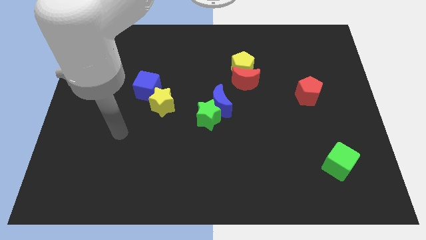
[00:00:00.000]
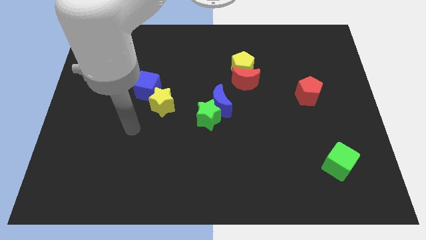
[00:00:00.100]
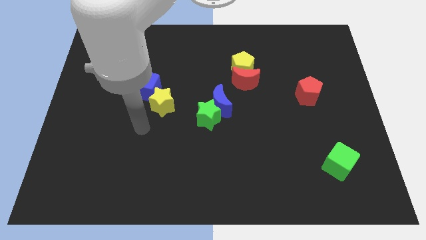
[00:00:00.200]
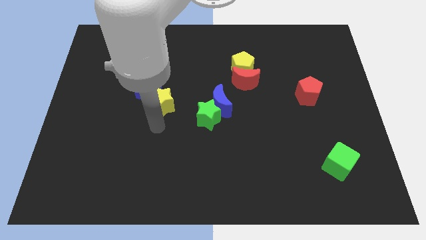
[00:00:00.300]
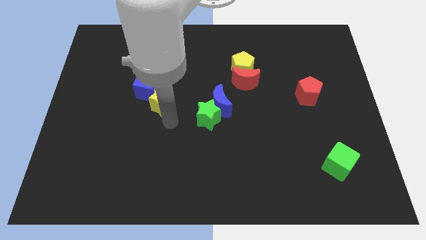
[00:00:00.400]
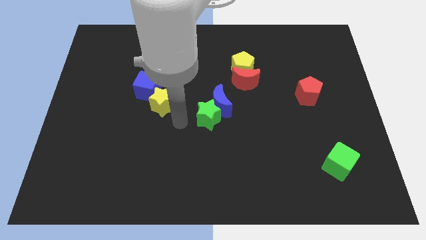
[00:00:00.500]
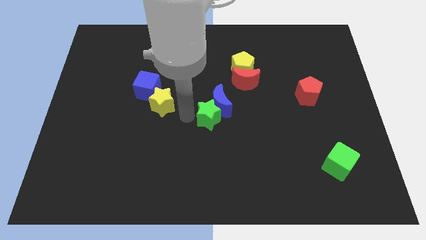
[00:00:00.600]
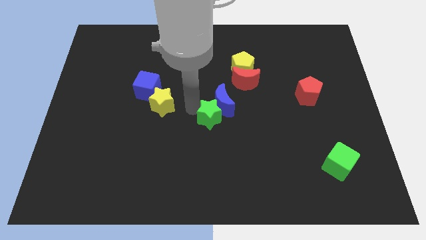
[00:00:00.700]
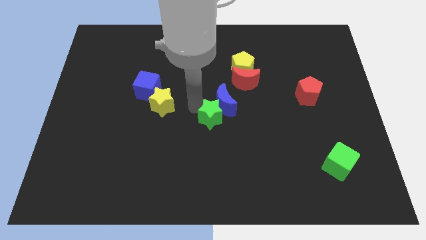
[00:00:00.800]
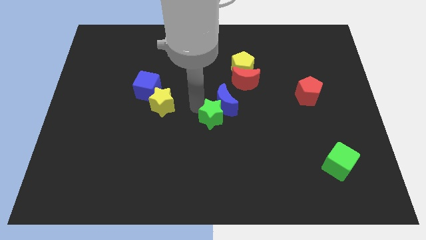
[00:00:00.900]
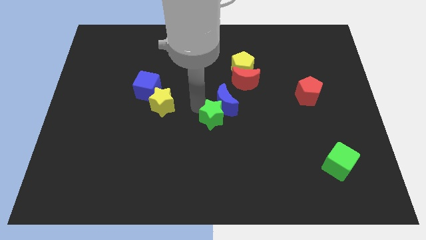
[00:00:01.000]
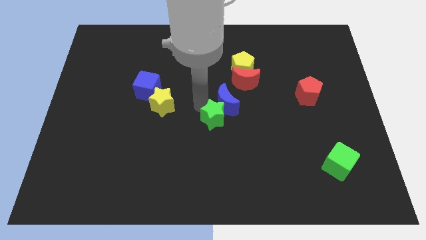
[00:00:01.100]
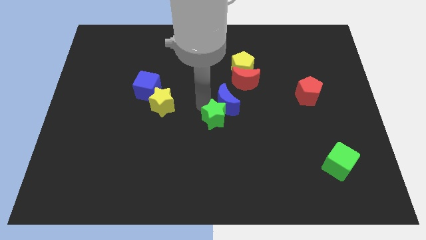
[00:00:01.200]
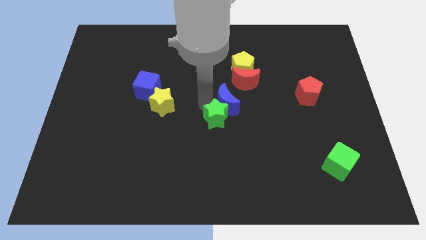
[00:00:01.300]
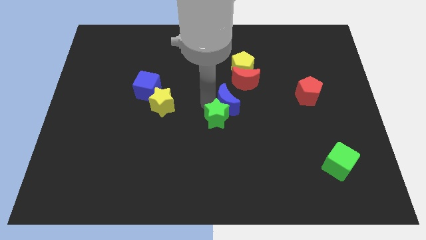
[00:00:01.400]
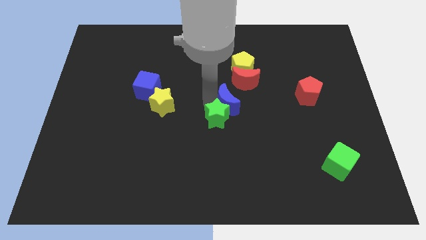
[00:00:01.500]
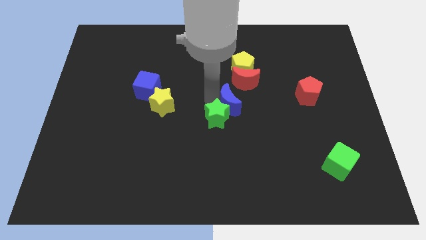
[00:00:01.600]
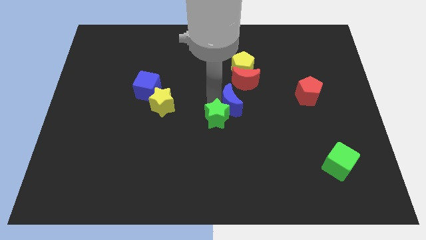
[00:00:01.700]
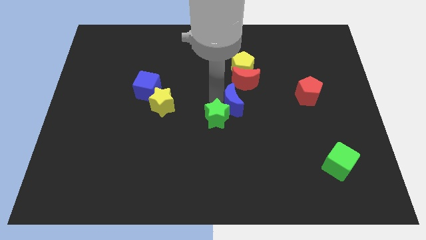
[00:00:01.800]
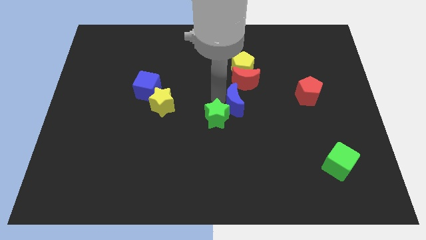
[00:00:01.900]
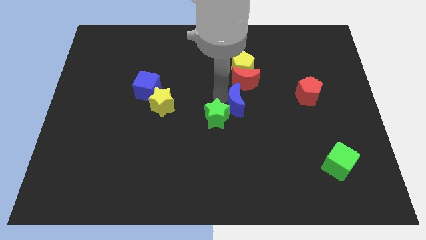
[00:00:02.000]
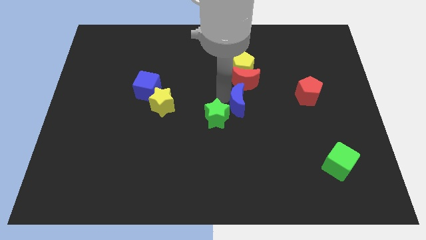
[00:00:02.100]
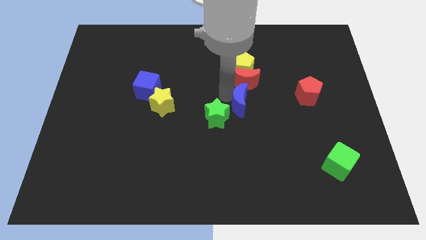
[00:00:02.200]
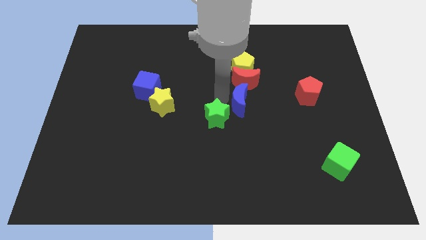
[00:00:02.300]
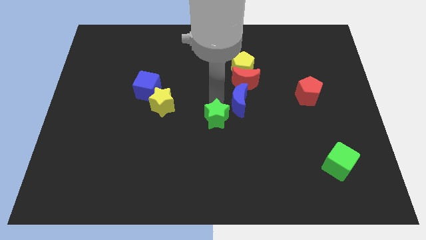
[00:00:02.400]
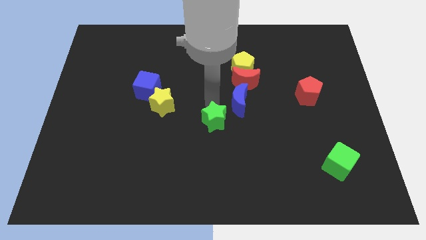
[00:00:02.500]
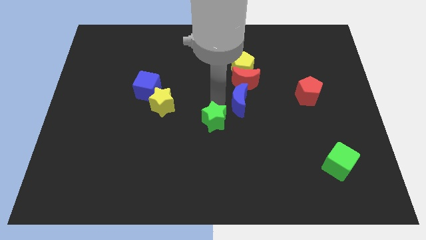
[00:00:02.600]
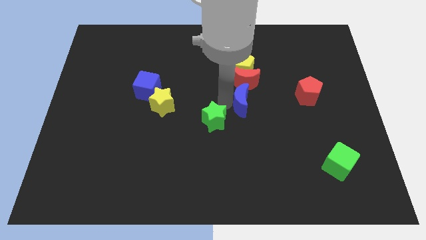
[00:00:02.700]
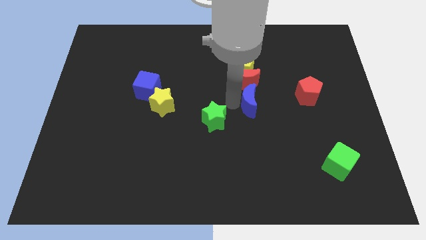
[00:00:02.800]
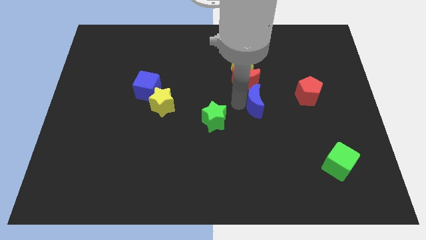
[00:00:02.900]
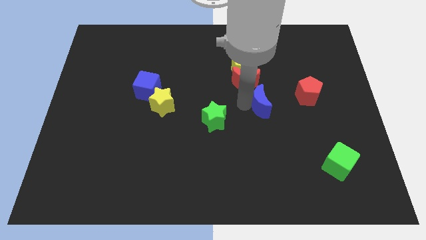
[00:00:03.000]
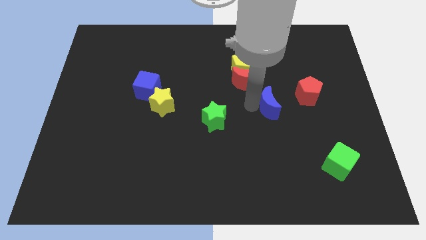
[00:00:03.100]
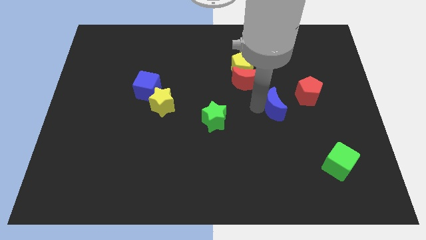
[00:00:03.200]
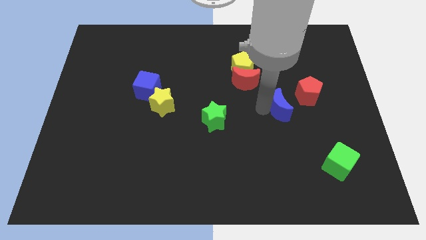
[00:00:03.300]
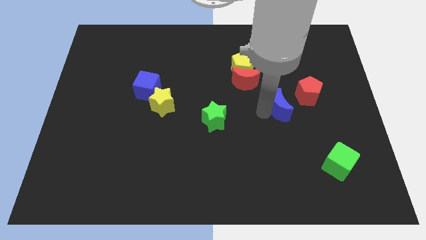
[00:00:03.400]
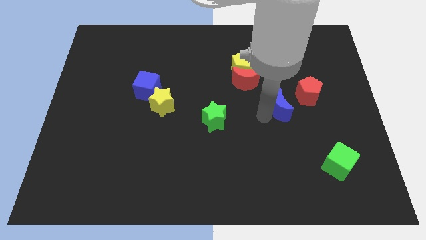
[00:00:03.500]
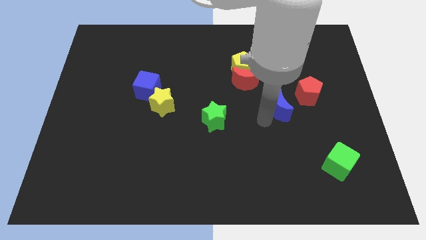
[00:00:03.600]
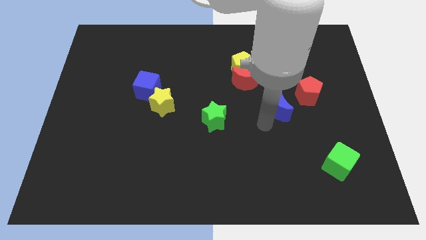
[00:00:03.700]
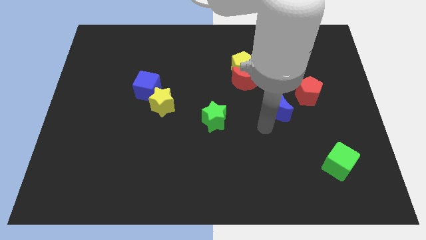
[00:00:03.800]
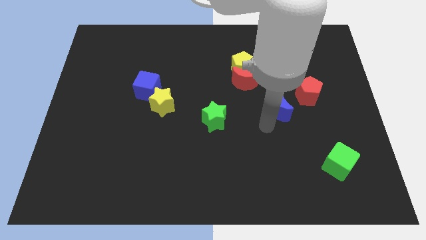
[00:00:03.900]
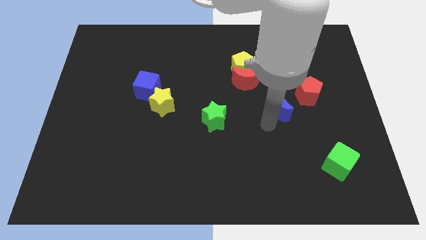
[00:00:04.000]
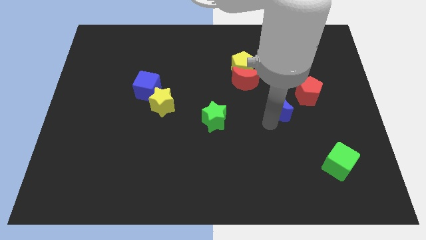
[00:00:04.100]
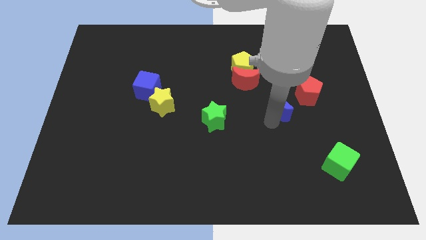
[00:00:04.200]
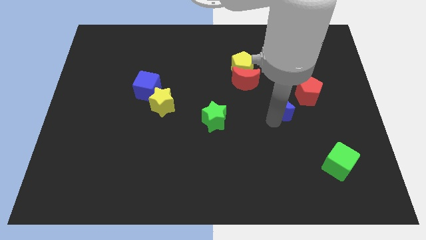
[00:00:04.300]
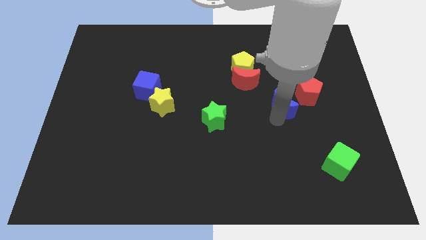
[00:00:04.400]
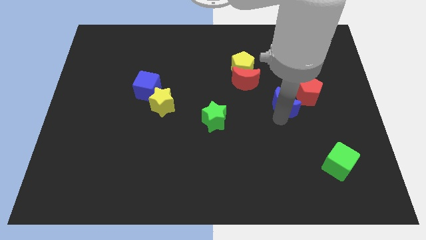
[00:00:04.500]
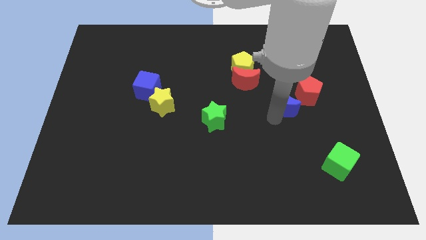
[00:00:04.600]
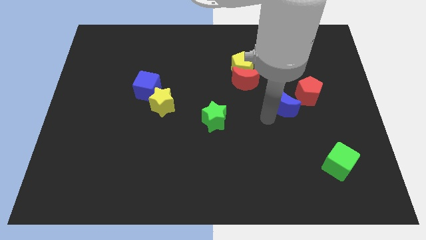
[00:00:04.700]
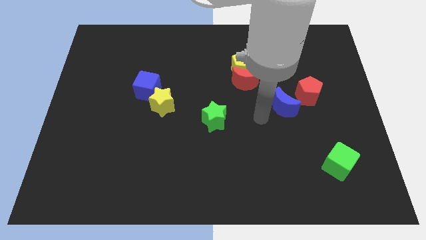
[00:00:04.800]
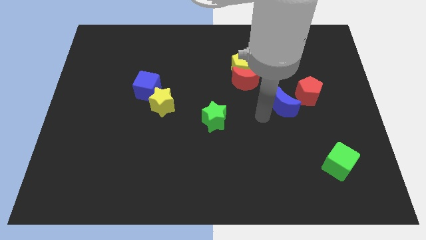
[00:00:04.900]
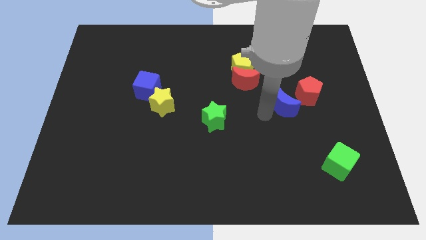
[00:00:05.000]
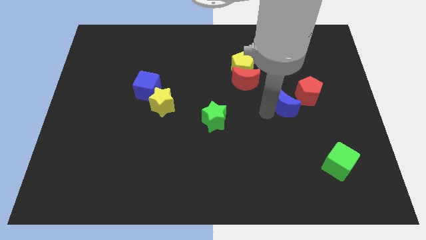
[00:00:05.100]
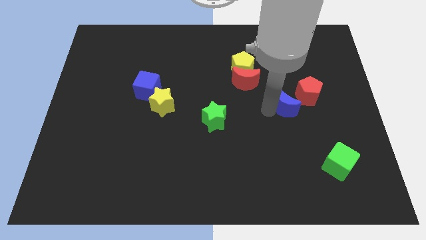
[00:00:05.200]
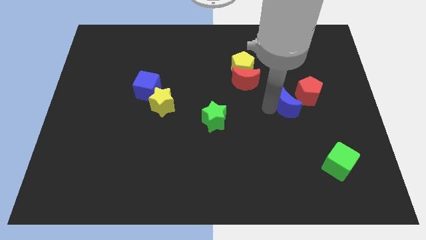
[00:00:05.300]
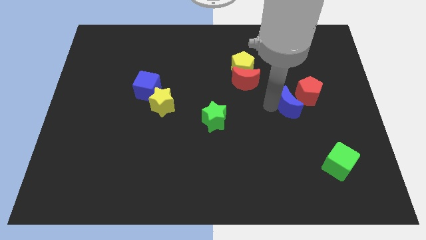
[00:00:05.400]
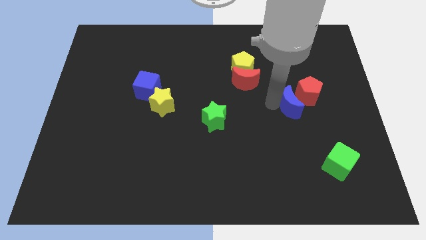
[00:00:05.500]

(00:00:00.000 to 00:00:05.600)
slide the blue moon towards the red pentagon

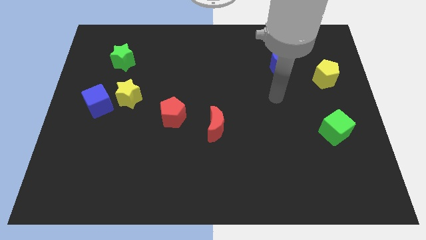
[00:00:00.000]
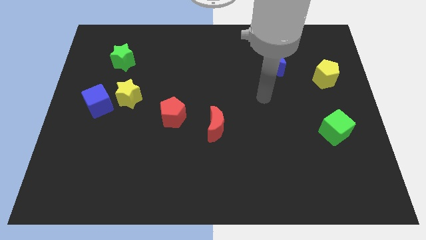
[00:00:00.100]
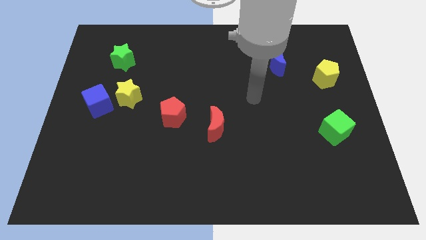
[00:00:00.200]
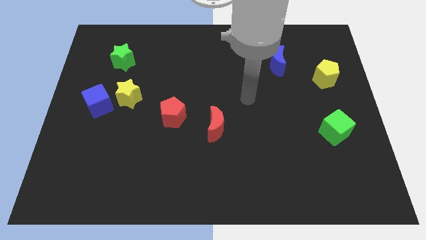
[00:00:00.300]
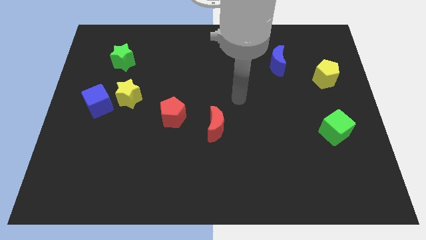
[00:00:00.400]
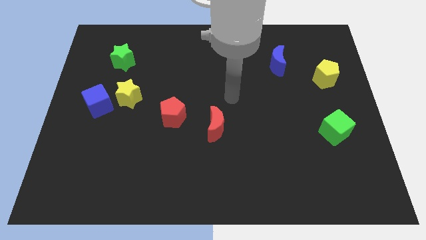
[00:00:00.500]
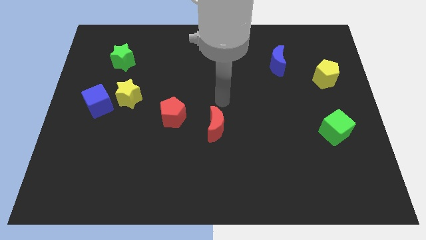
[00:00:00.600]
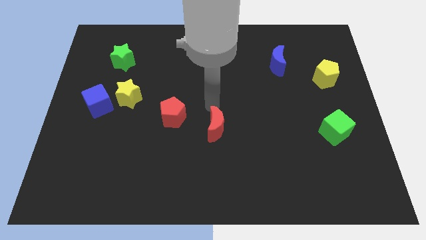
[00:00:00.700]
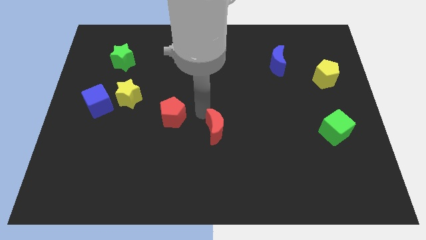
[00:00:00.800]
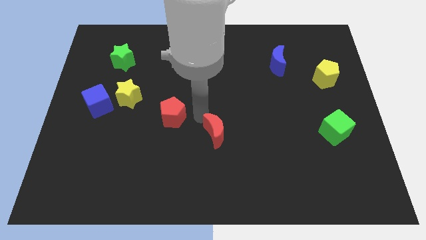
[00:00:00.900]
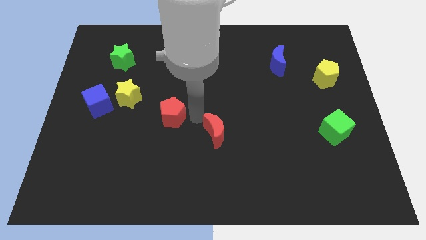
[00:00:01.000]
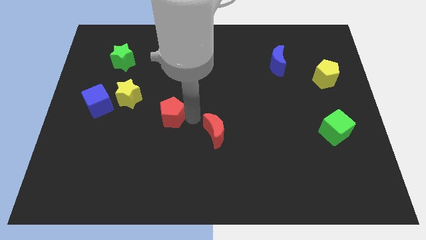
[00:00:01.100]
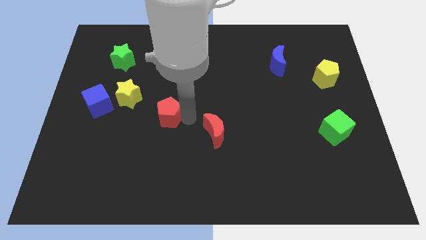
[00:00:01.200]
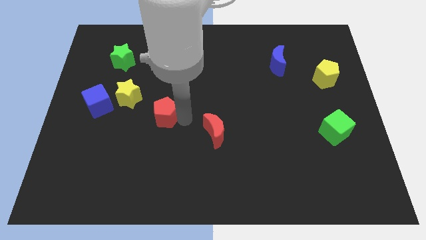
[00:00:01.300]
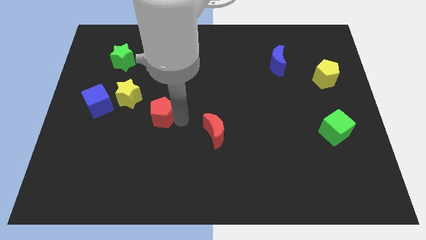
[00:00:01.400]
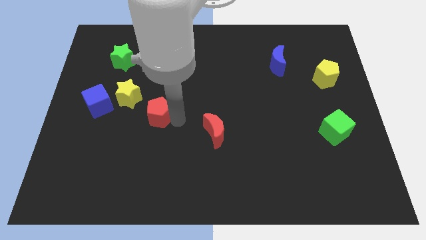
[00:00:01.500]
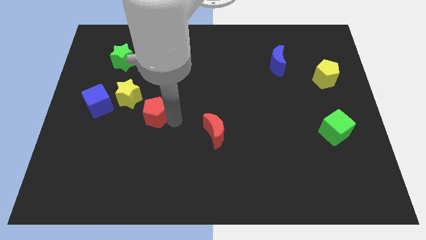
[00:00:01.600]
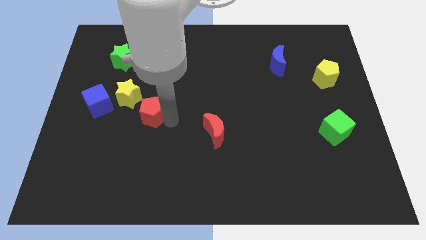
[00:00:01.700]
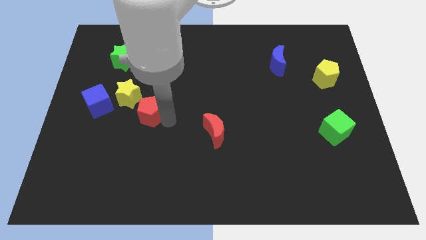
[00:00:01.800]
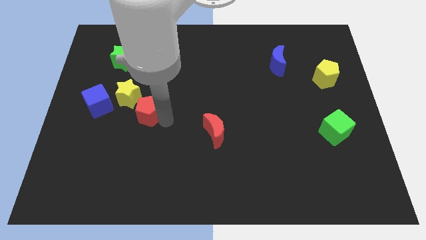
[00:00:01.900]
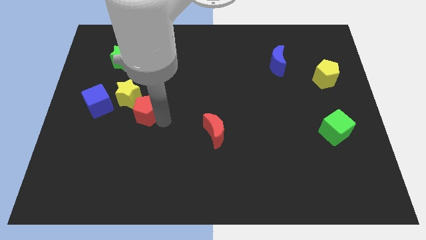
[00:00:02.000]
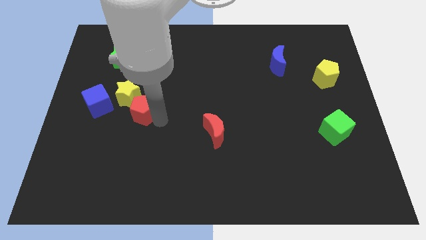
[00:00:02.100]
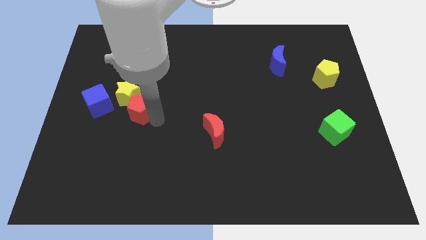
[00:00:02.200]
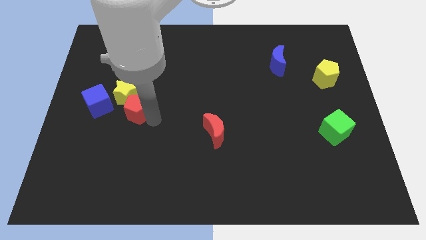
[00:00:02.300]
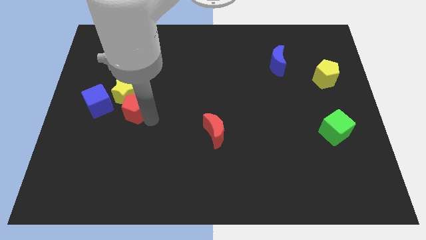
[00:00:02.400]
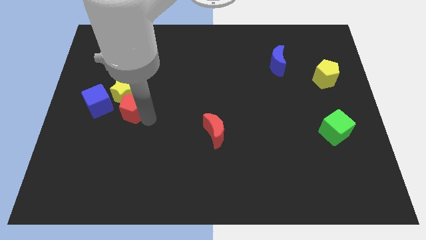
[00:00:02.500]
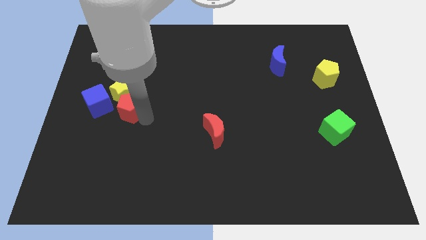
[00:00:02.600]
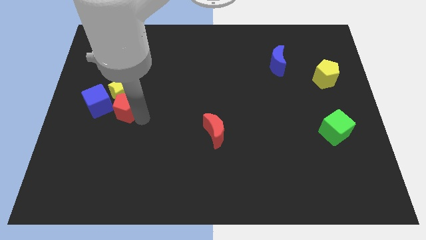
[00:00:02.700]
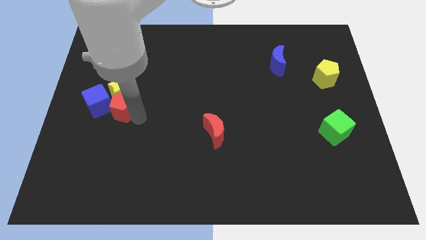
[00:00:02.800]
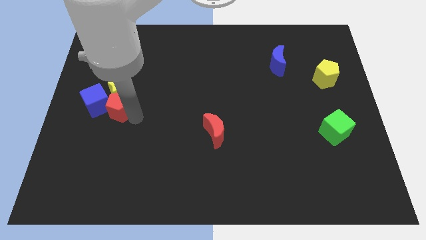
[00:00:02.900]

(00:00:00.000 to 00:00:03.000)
slide the red pentagon next to the blue cube
